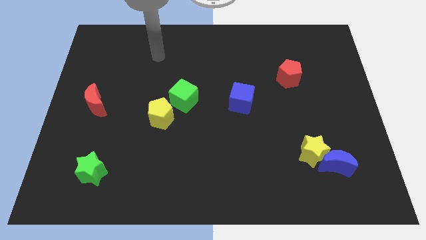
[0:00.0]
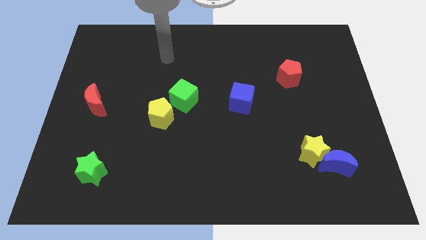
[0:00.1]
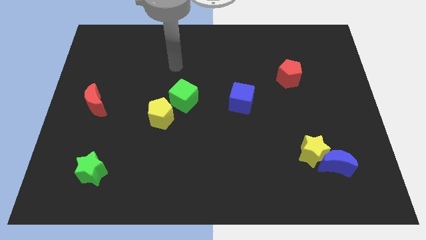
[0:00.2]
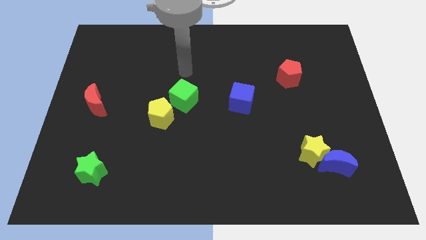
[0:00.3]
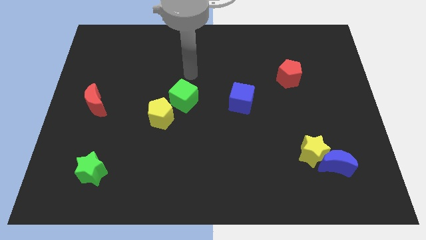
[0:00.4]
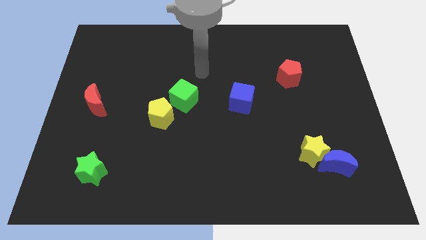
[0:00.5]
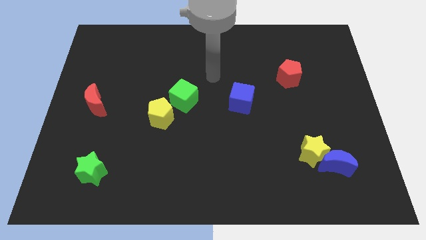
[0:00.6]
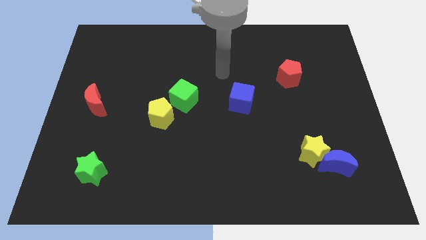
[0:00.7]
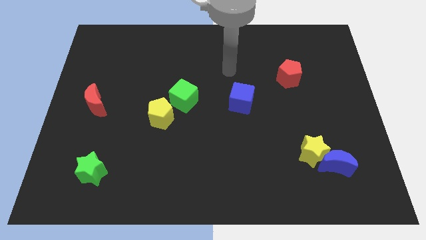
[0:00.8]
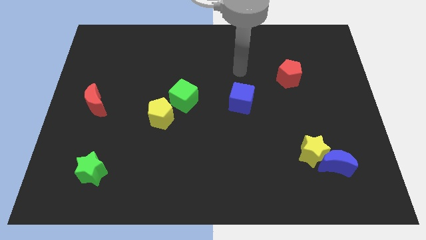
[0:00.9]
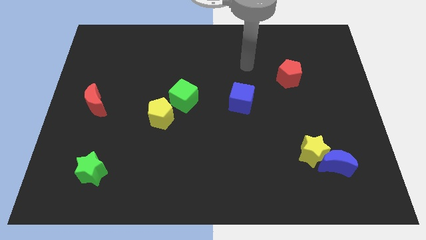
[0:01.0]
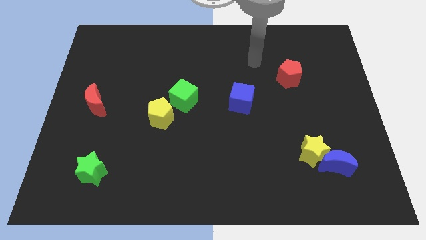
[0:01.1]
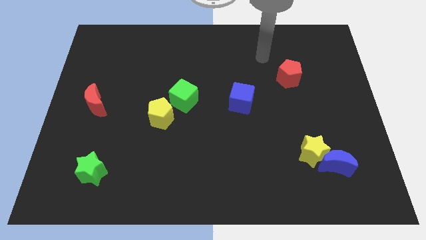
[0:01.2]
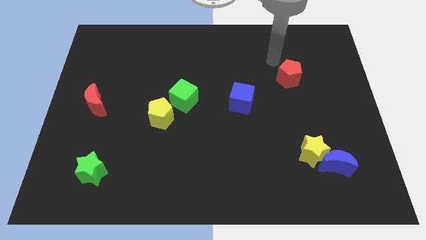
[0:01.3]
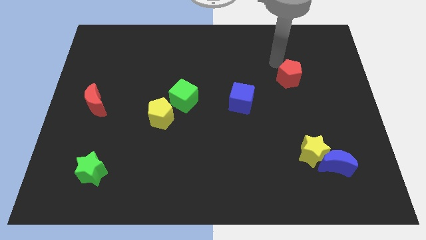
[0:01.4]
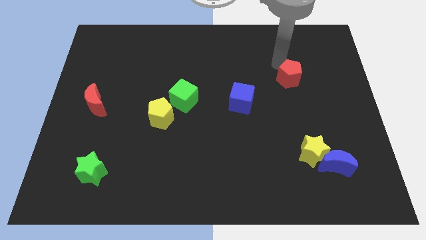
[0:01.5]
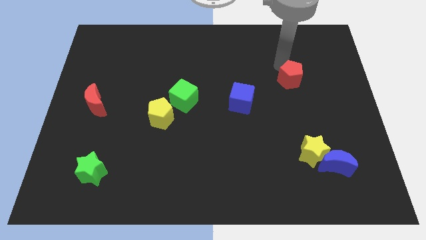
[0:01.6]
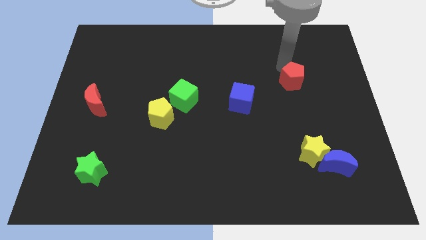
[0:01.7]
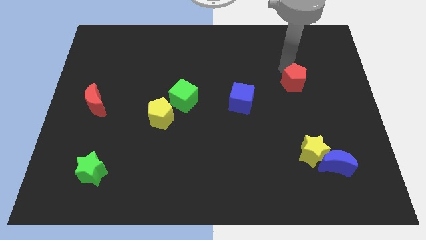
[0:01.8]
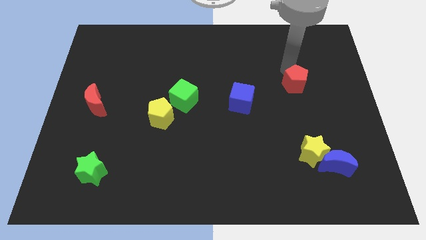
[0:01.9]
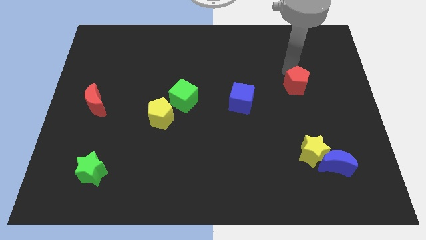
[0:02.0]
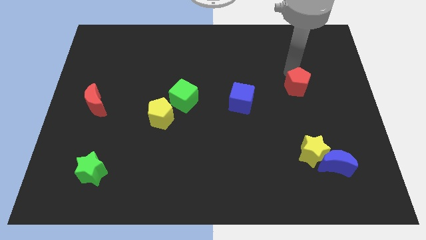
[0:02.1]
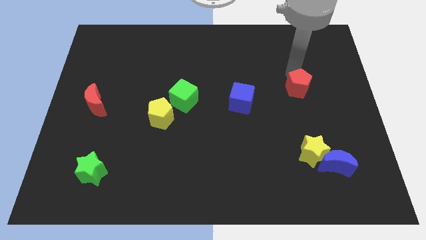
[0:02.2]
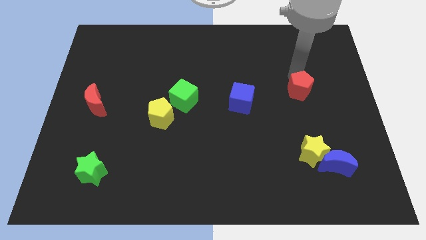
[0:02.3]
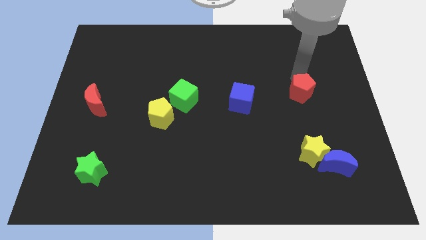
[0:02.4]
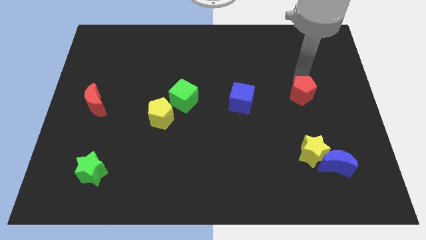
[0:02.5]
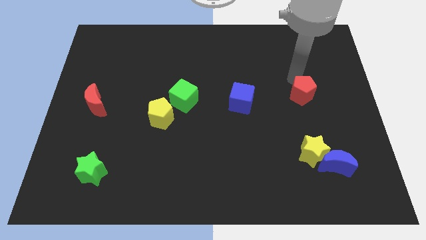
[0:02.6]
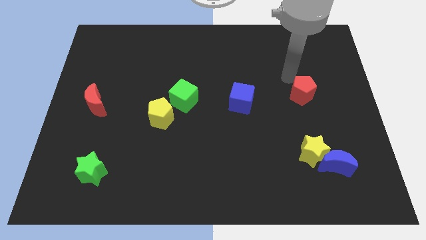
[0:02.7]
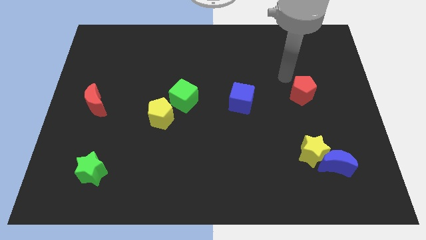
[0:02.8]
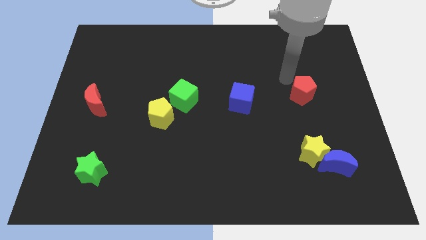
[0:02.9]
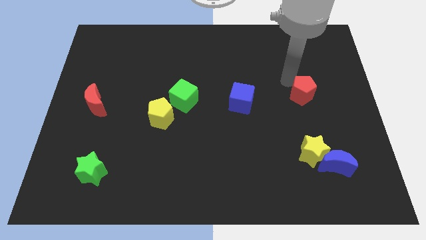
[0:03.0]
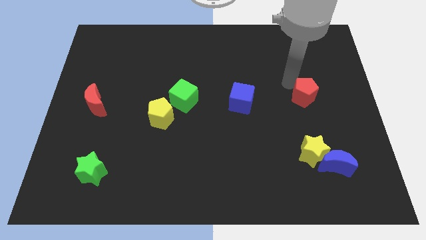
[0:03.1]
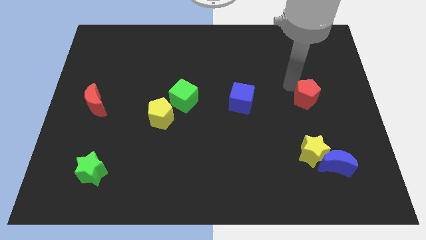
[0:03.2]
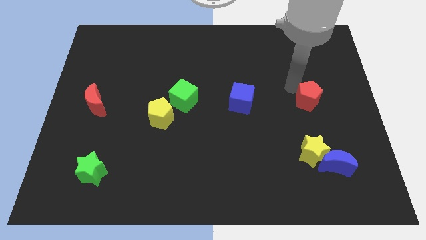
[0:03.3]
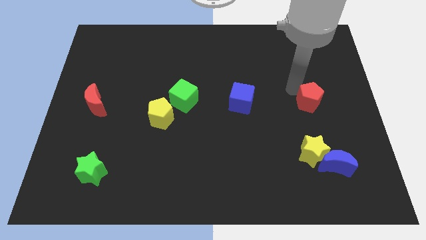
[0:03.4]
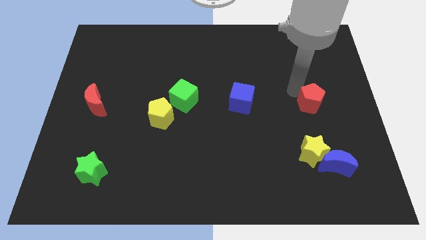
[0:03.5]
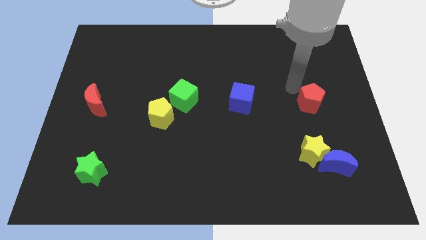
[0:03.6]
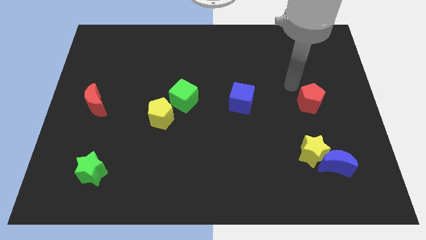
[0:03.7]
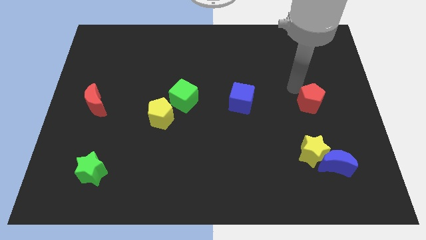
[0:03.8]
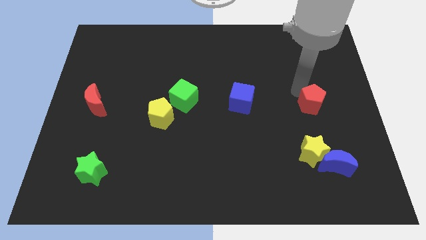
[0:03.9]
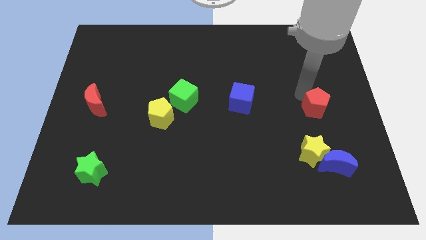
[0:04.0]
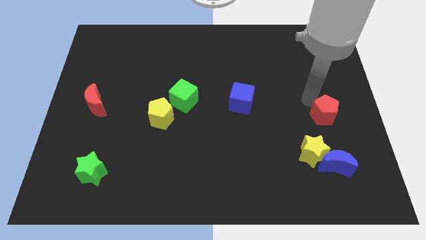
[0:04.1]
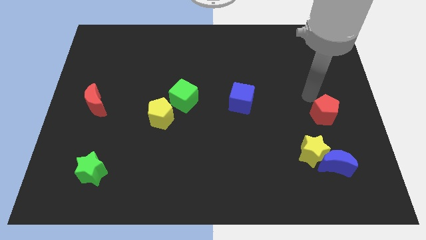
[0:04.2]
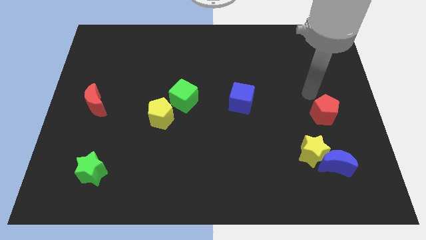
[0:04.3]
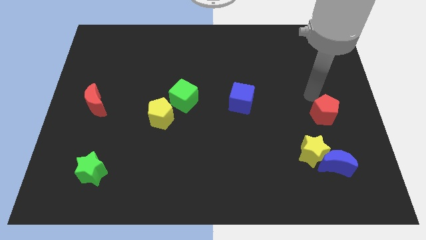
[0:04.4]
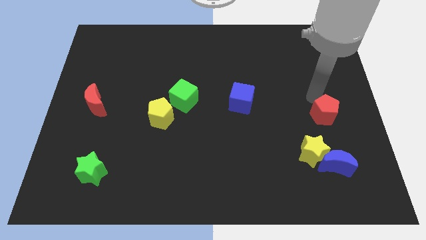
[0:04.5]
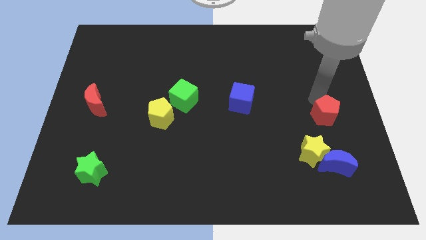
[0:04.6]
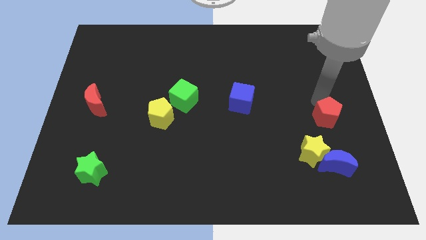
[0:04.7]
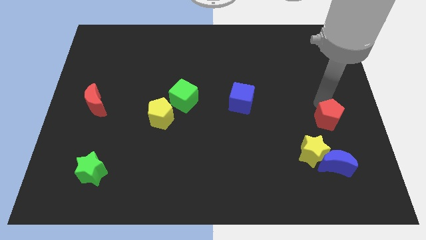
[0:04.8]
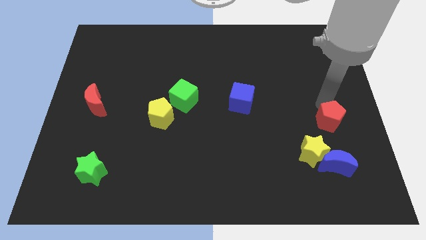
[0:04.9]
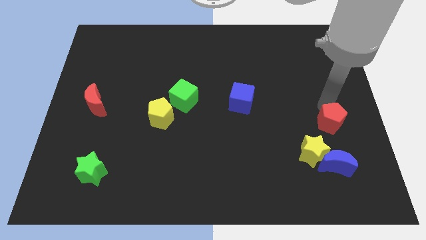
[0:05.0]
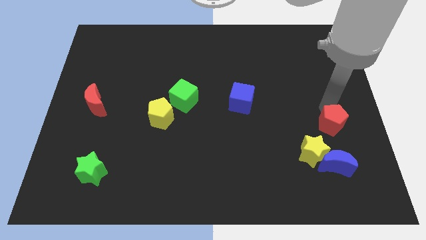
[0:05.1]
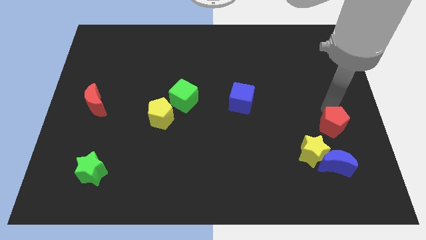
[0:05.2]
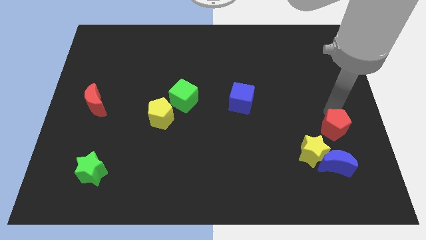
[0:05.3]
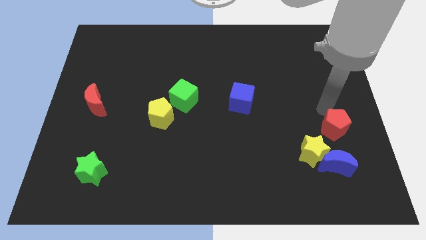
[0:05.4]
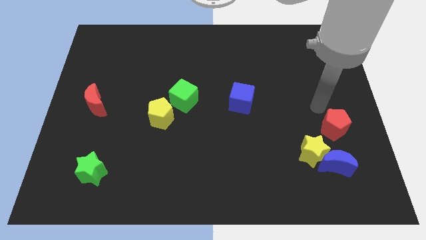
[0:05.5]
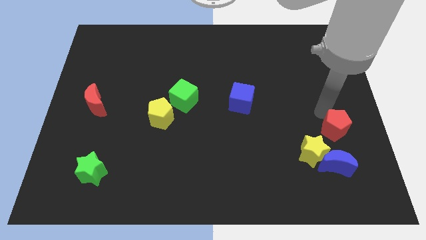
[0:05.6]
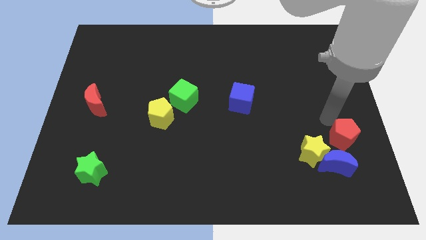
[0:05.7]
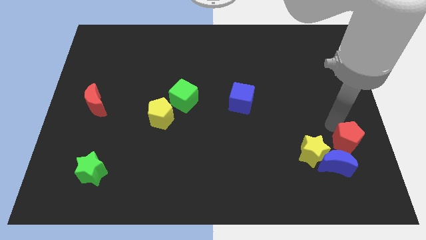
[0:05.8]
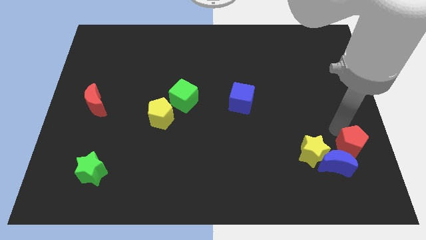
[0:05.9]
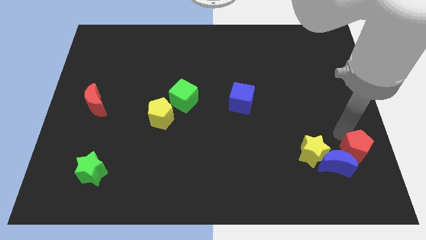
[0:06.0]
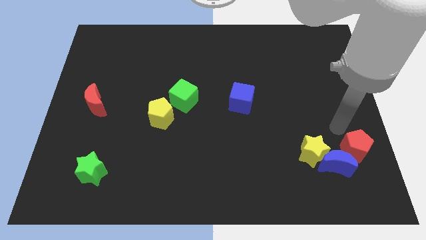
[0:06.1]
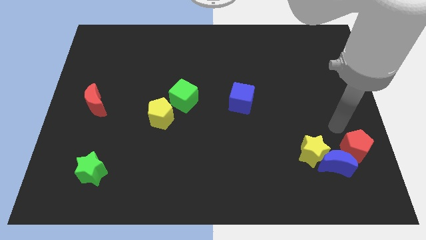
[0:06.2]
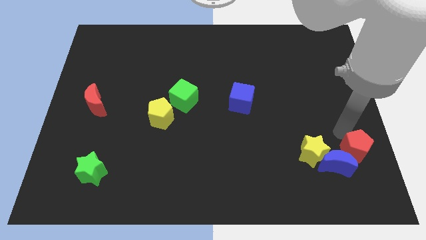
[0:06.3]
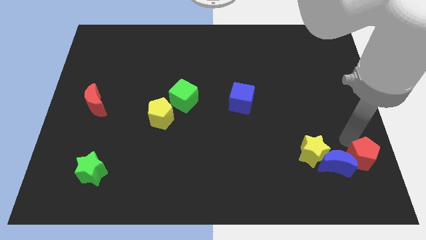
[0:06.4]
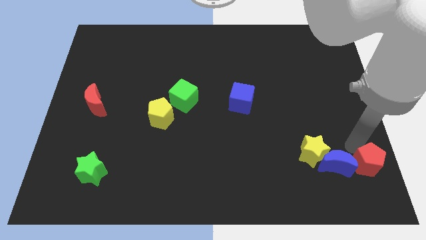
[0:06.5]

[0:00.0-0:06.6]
move the red pentagon to the bottom right corner
